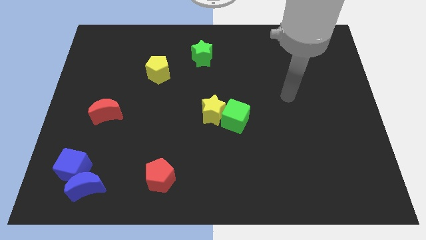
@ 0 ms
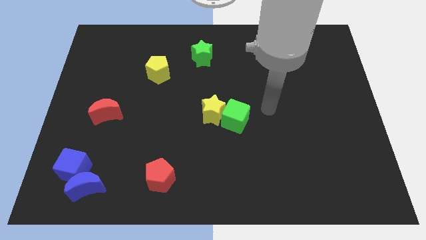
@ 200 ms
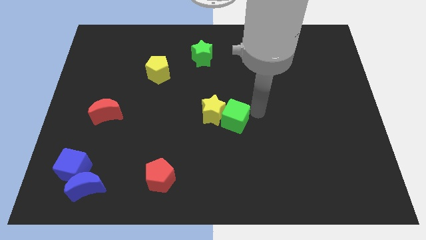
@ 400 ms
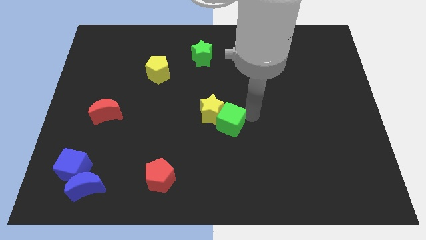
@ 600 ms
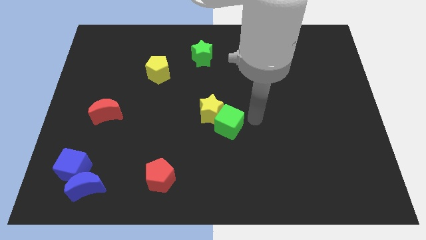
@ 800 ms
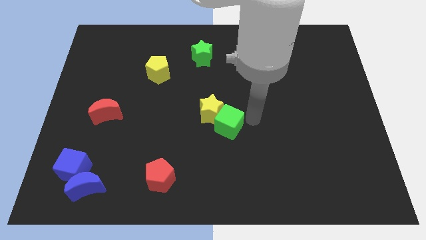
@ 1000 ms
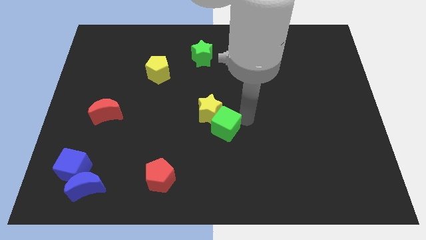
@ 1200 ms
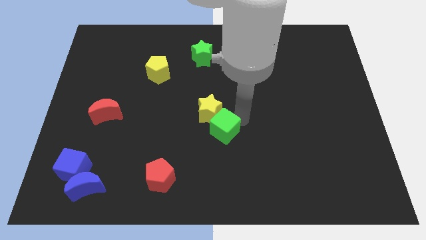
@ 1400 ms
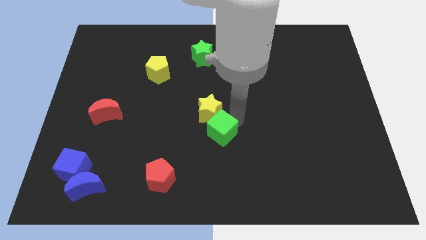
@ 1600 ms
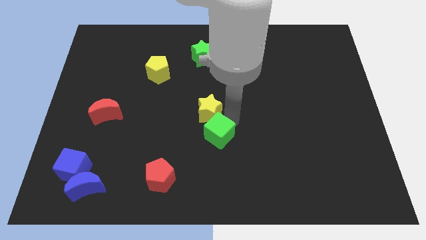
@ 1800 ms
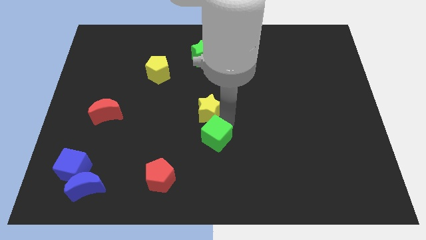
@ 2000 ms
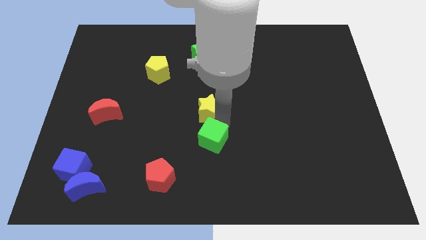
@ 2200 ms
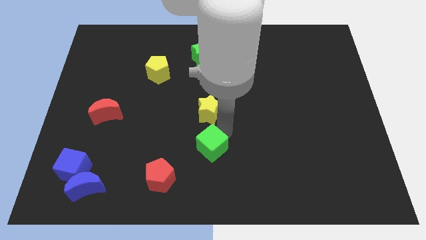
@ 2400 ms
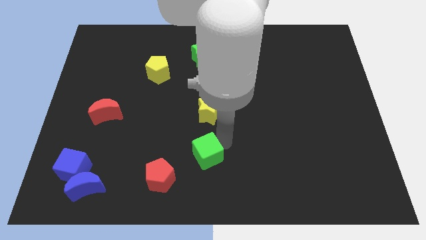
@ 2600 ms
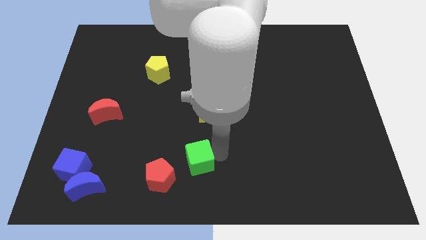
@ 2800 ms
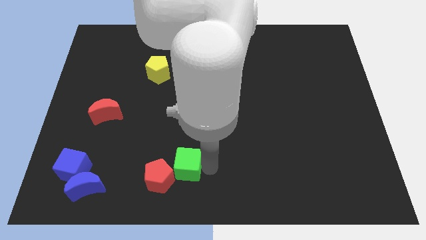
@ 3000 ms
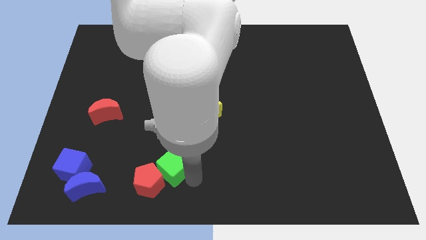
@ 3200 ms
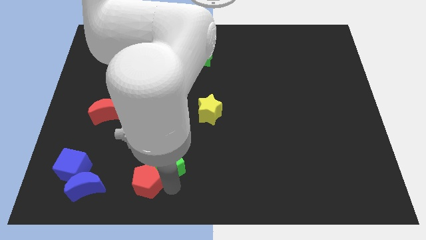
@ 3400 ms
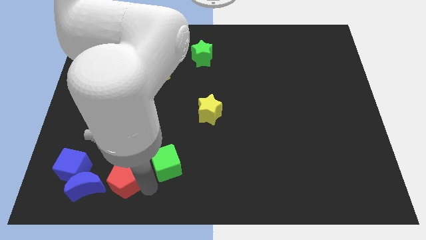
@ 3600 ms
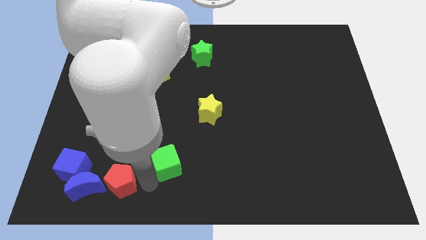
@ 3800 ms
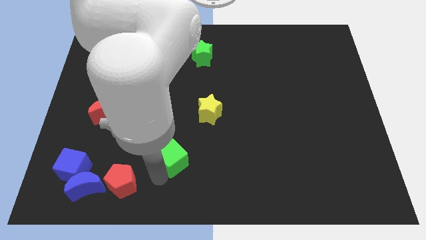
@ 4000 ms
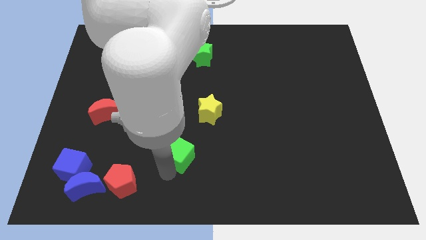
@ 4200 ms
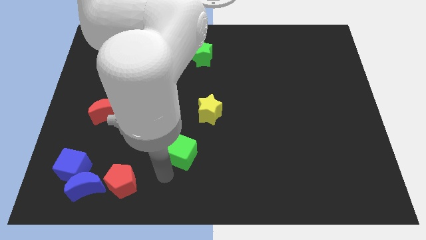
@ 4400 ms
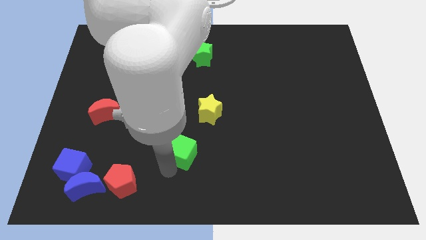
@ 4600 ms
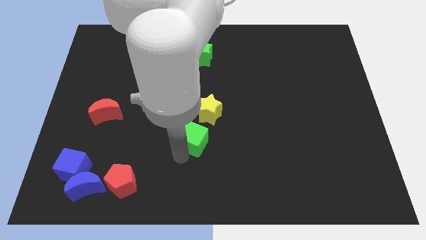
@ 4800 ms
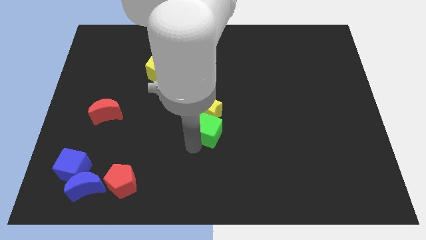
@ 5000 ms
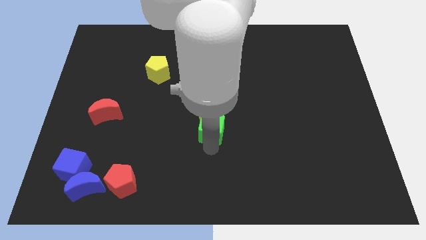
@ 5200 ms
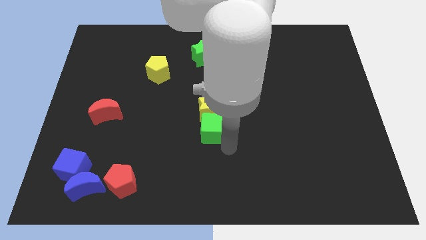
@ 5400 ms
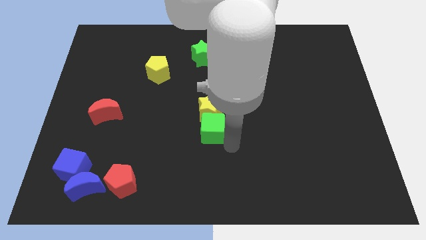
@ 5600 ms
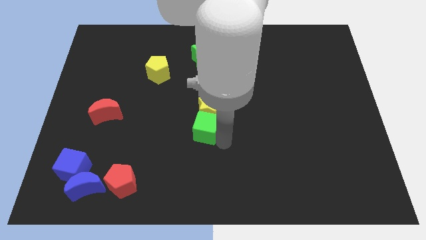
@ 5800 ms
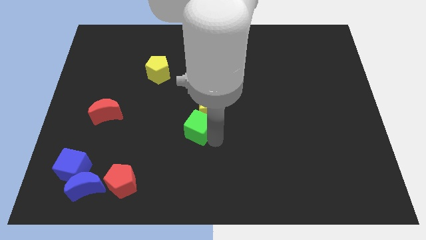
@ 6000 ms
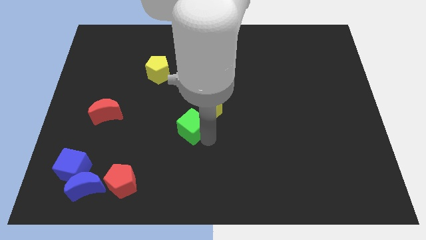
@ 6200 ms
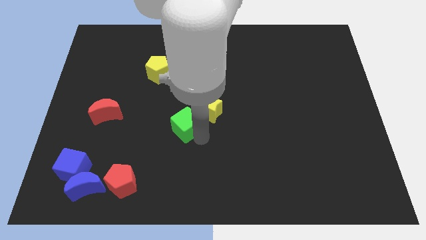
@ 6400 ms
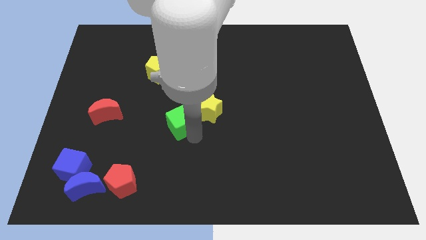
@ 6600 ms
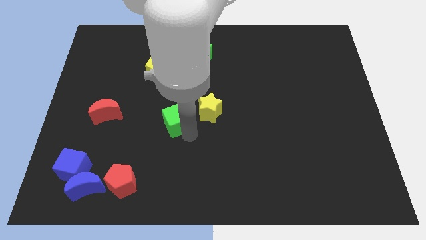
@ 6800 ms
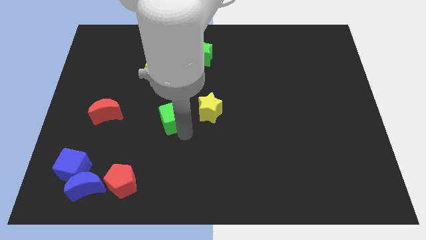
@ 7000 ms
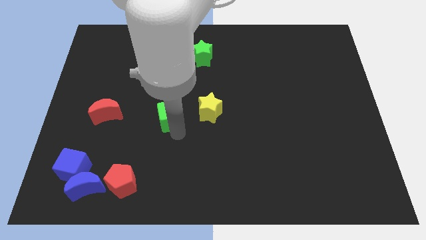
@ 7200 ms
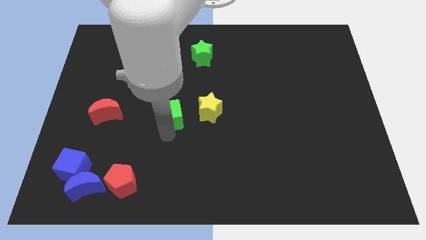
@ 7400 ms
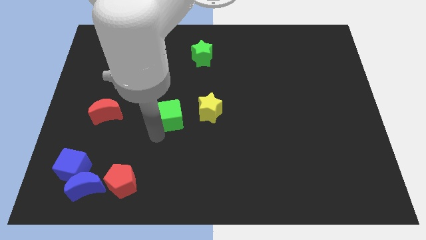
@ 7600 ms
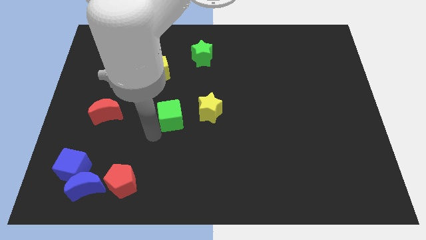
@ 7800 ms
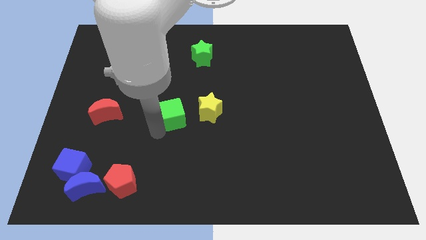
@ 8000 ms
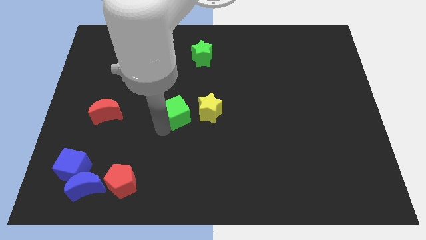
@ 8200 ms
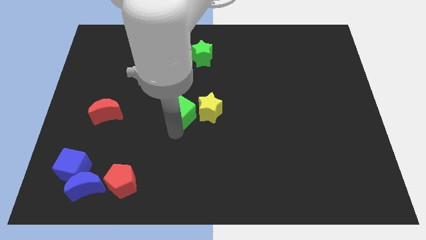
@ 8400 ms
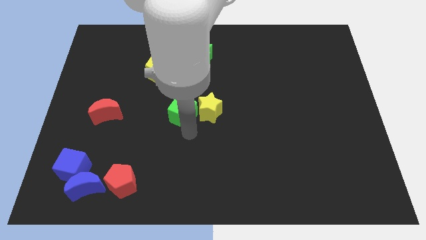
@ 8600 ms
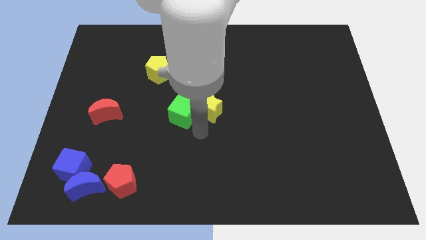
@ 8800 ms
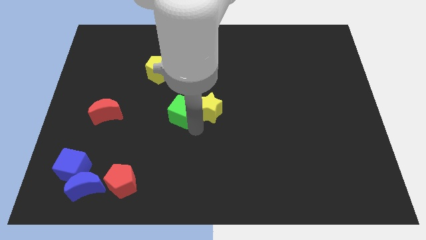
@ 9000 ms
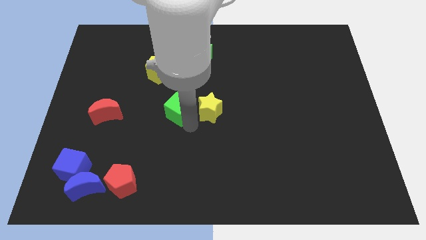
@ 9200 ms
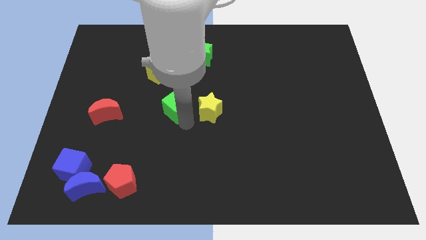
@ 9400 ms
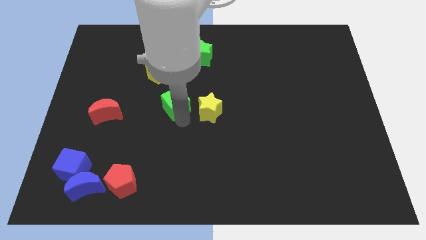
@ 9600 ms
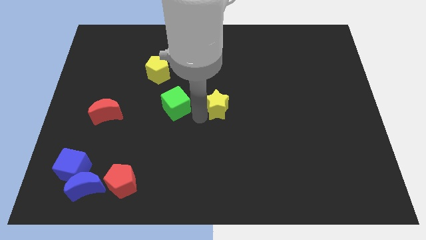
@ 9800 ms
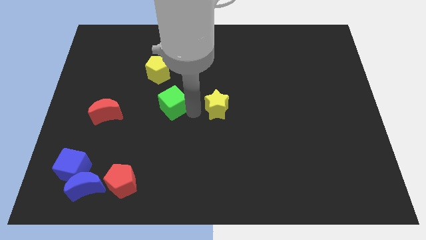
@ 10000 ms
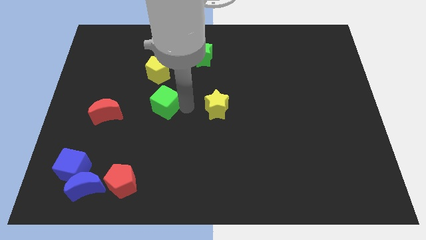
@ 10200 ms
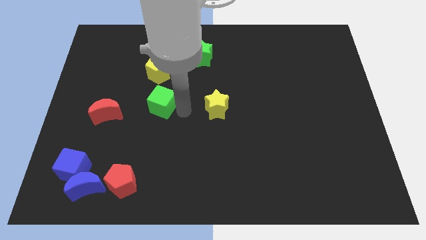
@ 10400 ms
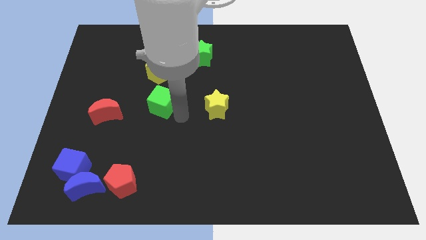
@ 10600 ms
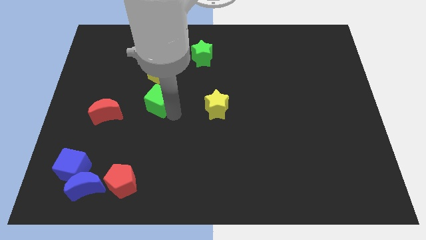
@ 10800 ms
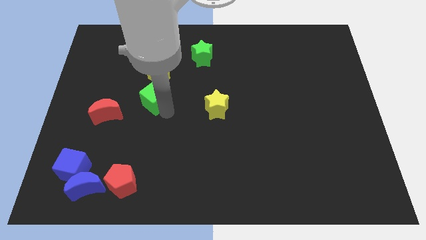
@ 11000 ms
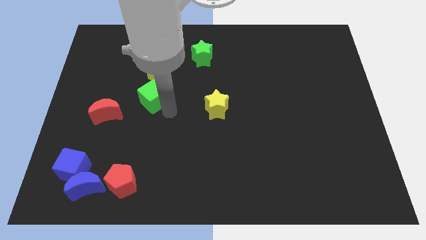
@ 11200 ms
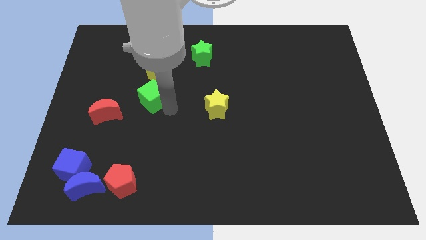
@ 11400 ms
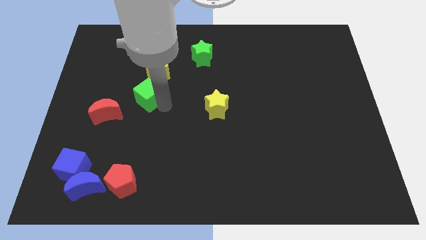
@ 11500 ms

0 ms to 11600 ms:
slide the green cube diagonally down and to the left of the yellow pentagon

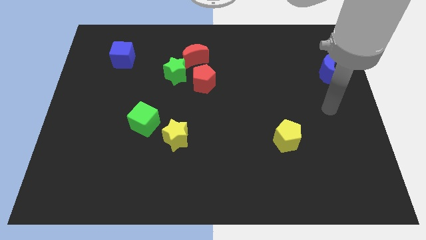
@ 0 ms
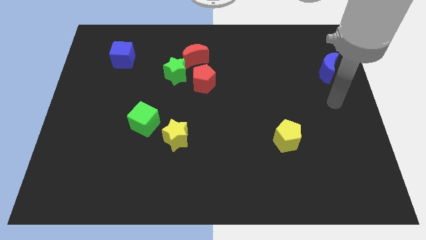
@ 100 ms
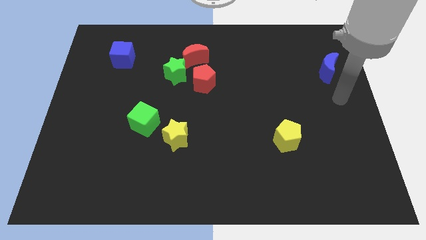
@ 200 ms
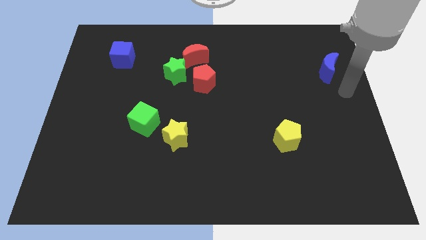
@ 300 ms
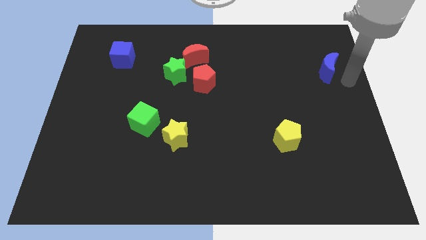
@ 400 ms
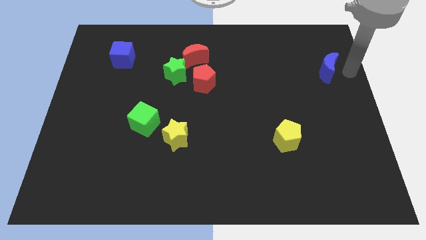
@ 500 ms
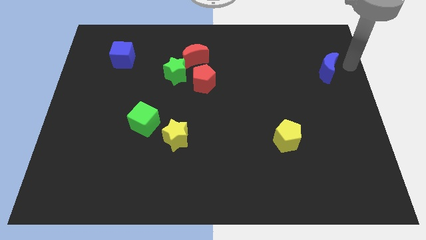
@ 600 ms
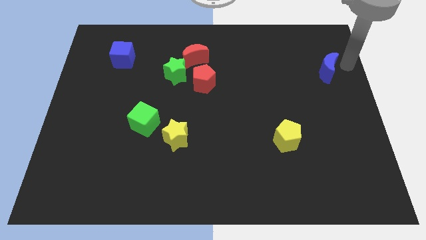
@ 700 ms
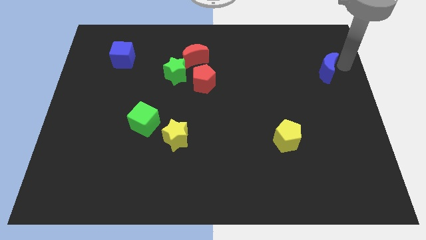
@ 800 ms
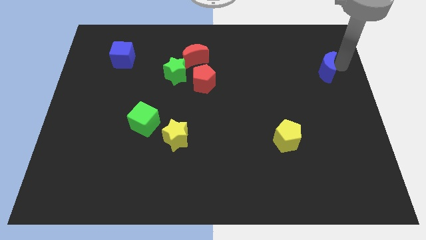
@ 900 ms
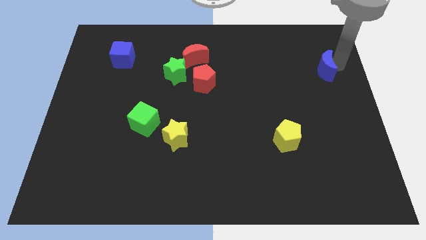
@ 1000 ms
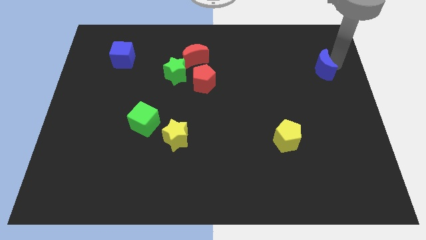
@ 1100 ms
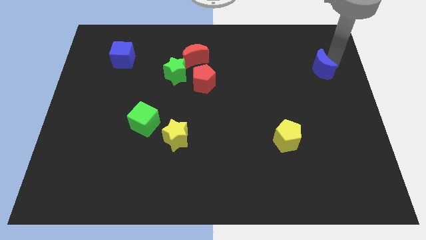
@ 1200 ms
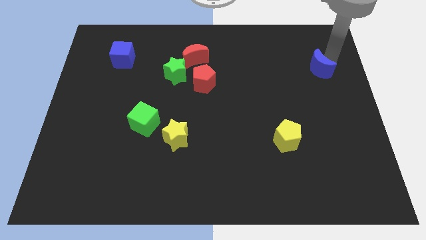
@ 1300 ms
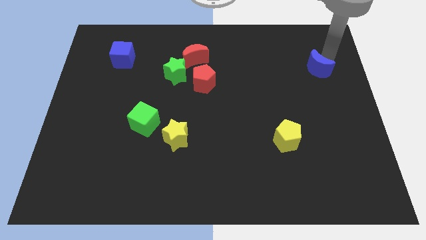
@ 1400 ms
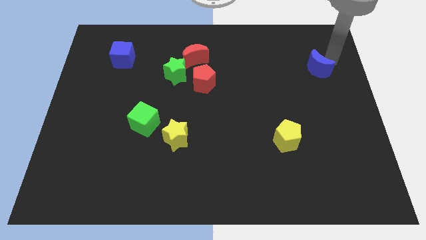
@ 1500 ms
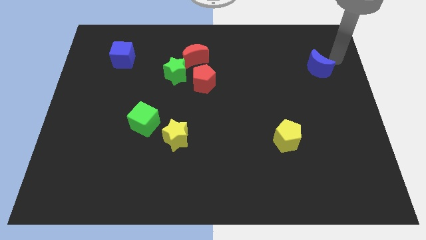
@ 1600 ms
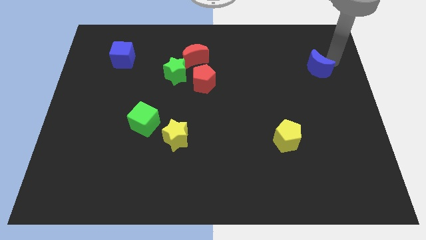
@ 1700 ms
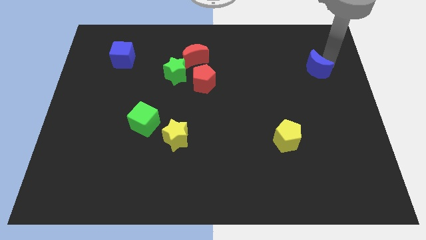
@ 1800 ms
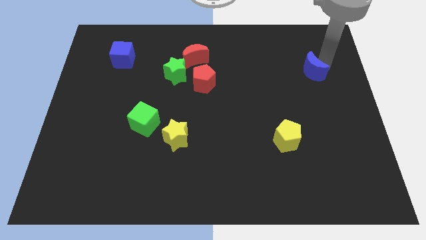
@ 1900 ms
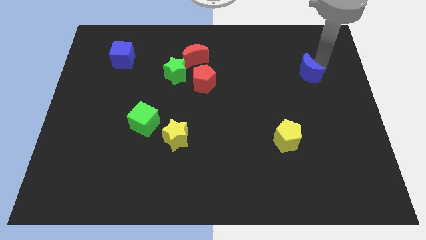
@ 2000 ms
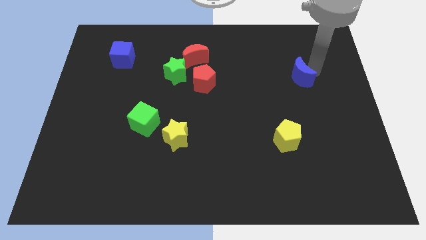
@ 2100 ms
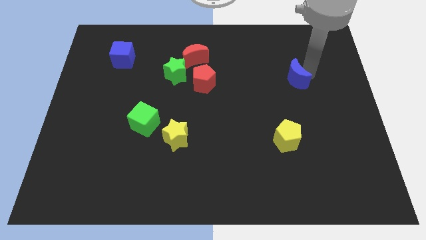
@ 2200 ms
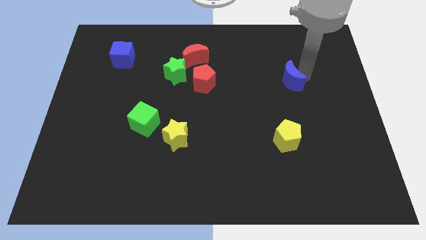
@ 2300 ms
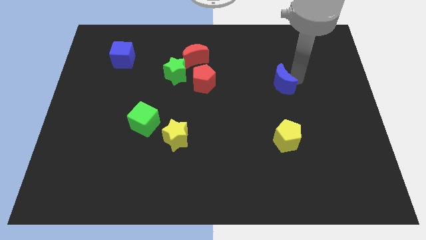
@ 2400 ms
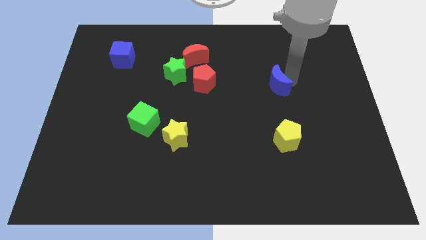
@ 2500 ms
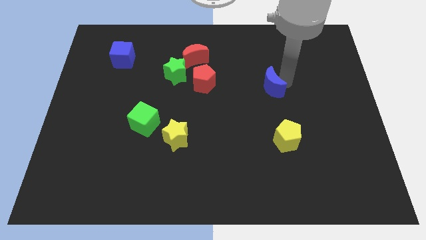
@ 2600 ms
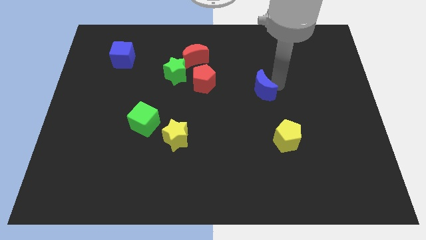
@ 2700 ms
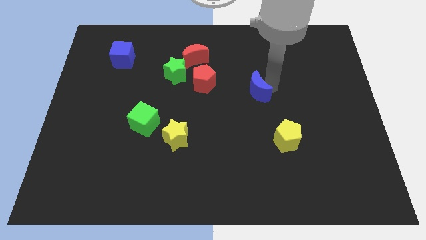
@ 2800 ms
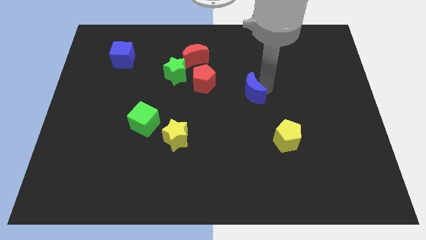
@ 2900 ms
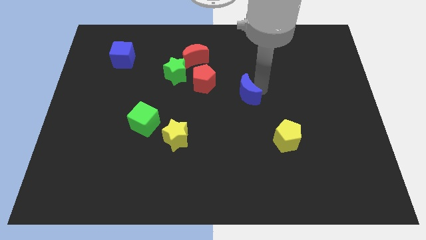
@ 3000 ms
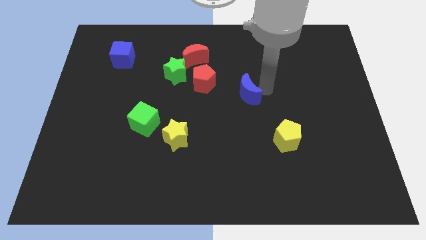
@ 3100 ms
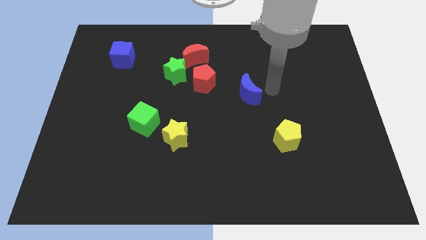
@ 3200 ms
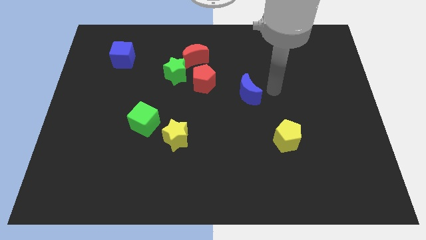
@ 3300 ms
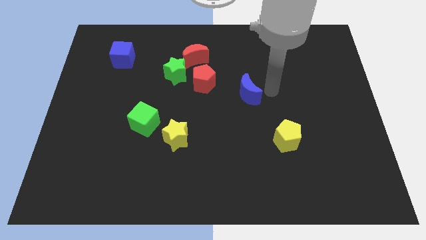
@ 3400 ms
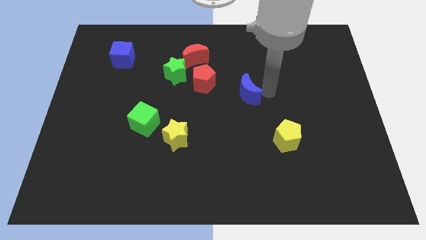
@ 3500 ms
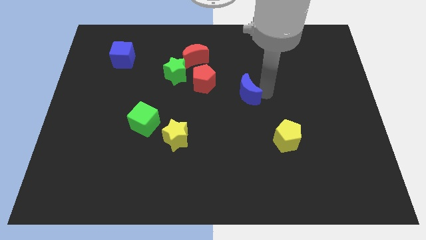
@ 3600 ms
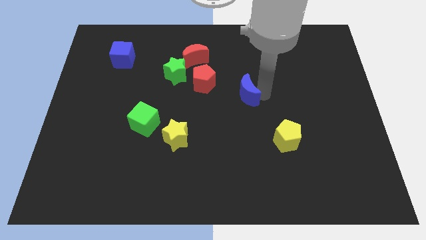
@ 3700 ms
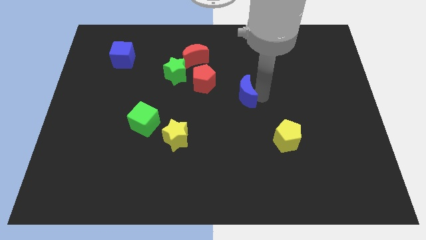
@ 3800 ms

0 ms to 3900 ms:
slide the blue moon to the bottom right of the red pentagon
